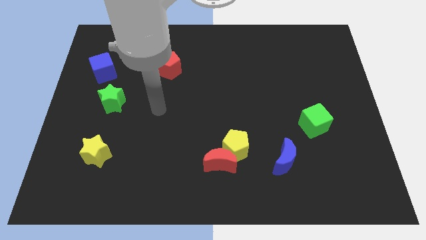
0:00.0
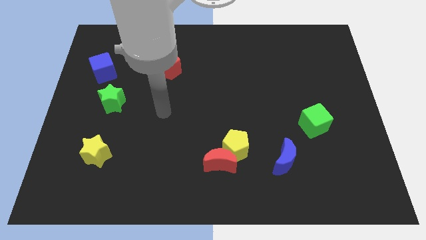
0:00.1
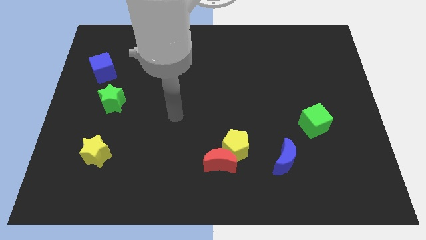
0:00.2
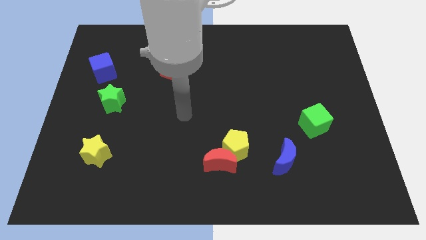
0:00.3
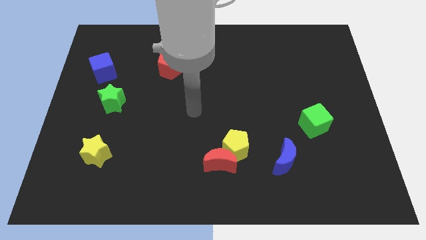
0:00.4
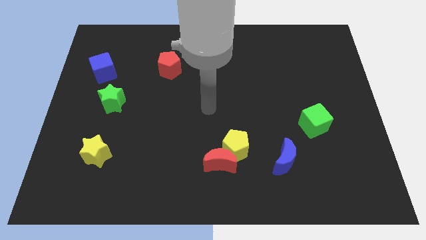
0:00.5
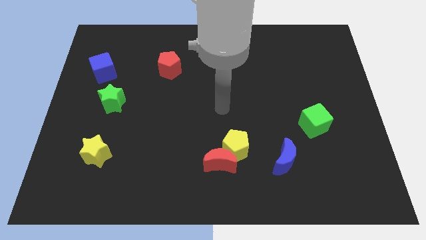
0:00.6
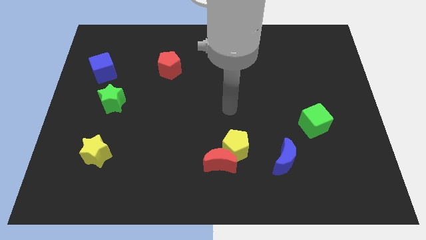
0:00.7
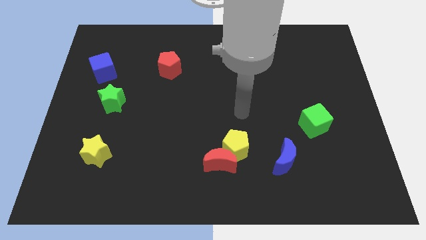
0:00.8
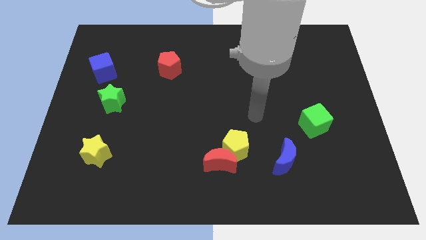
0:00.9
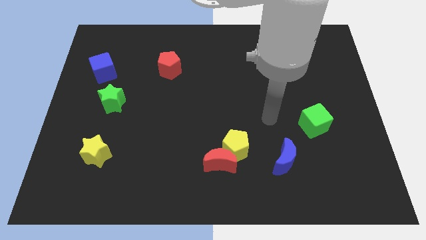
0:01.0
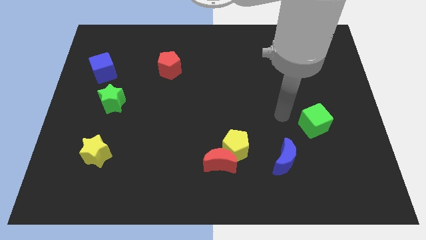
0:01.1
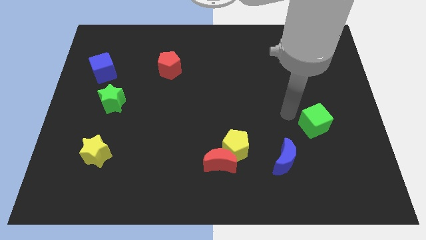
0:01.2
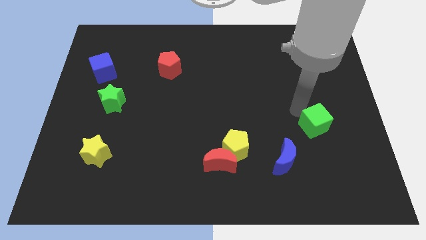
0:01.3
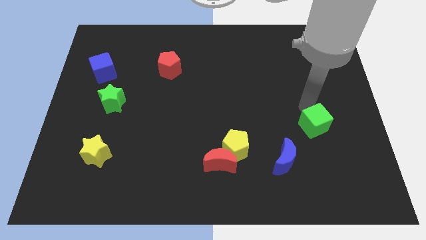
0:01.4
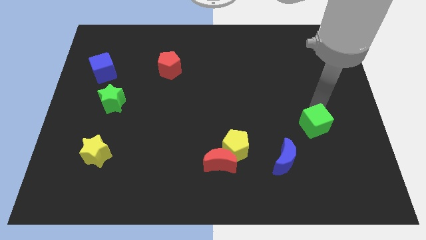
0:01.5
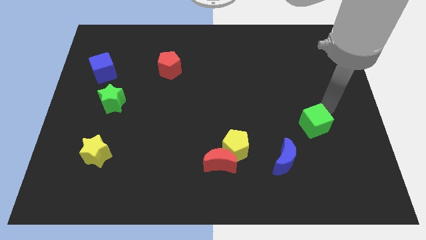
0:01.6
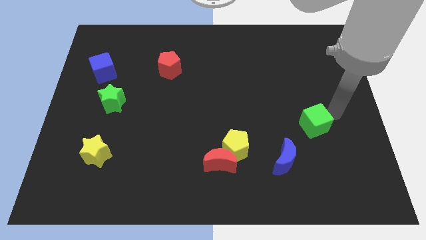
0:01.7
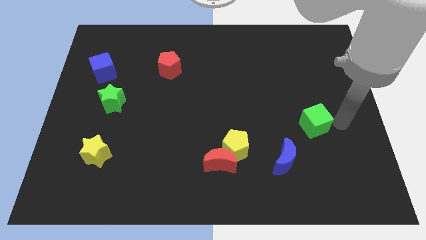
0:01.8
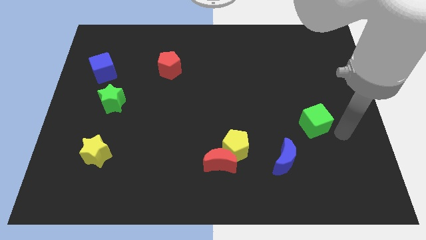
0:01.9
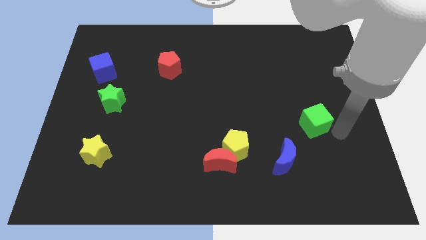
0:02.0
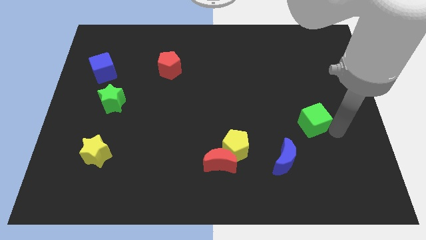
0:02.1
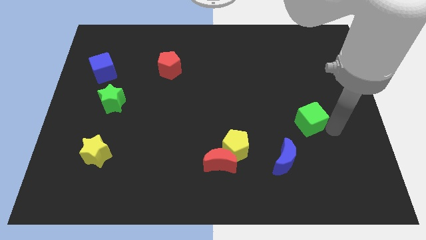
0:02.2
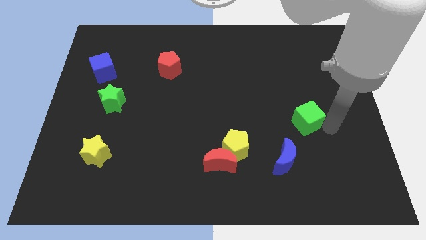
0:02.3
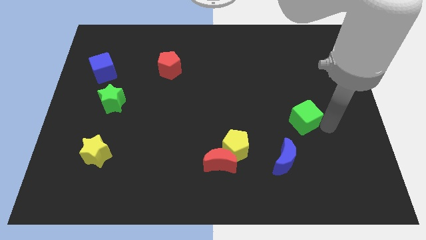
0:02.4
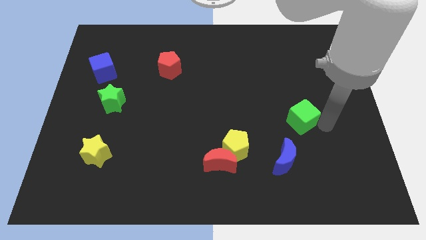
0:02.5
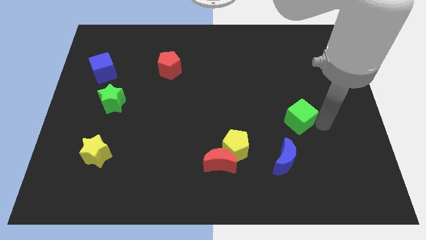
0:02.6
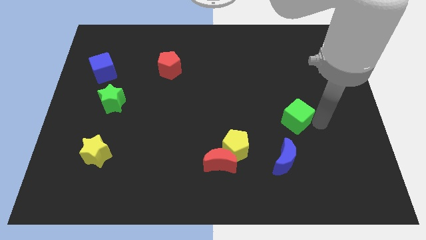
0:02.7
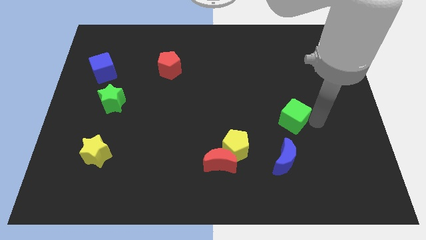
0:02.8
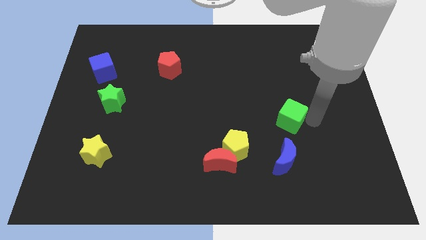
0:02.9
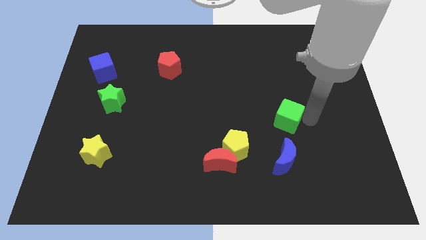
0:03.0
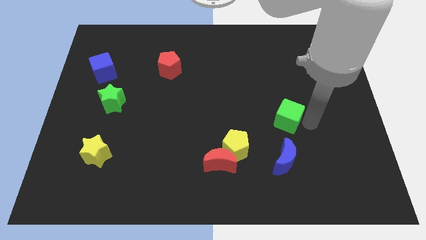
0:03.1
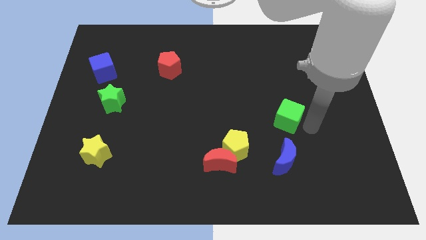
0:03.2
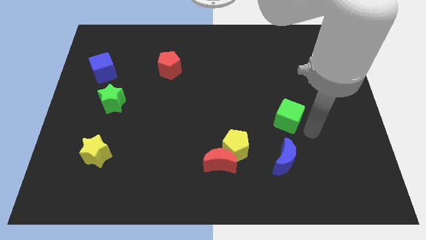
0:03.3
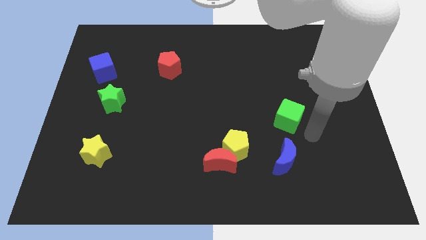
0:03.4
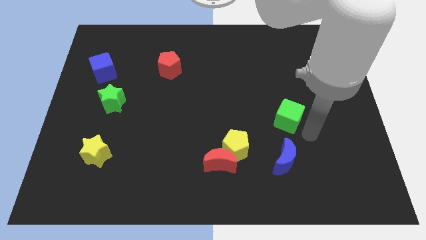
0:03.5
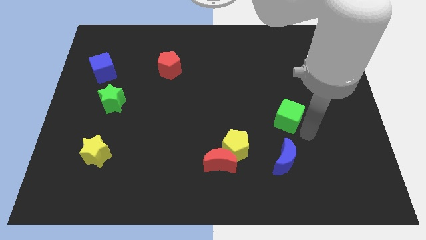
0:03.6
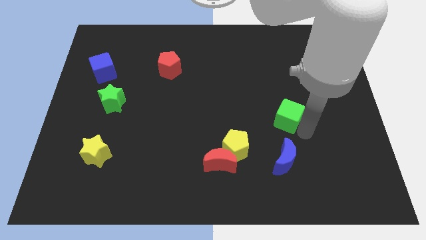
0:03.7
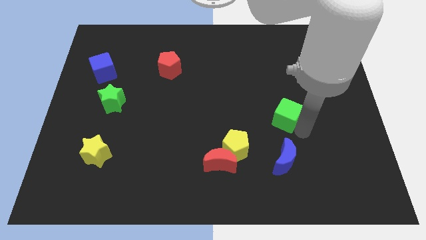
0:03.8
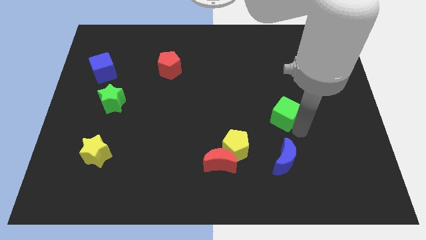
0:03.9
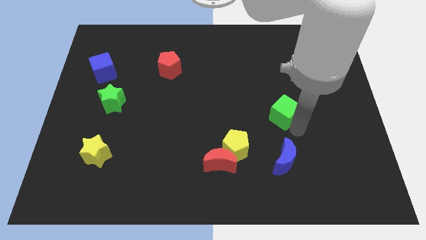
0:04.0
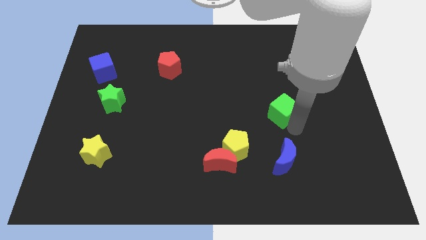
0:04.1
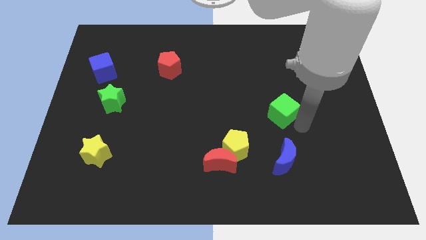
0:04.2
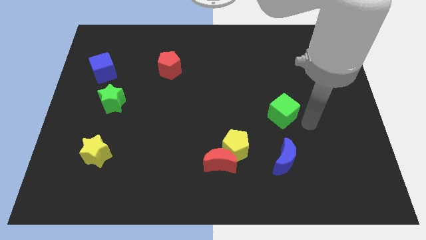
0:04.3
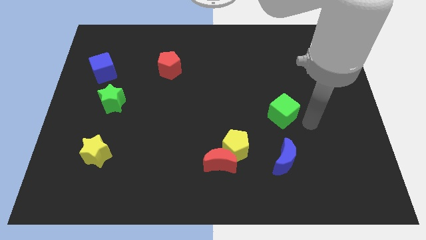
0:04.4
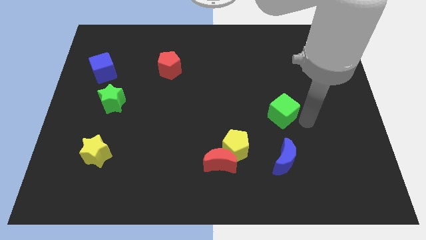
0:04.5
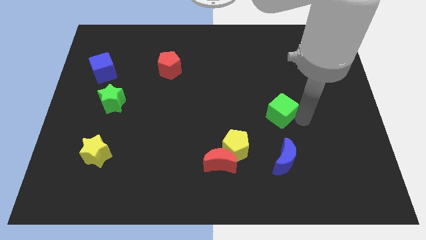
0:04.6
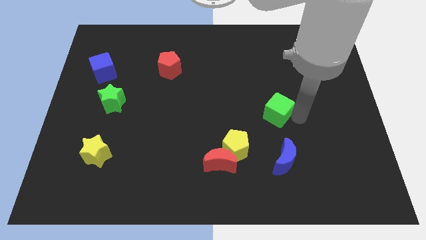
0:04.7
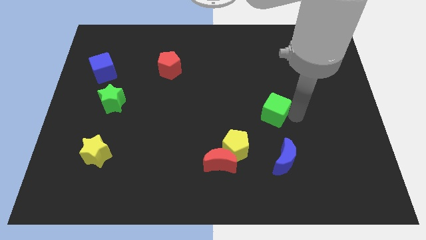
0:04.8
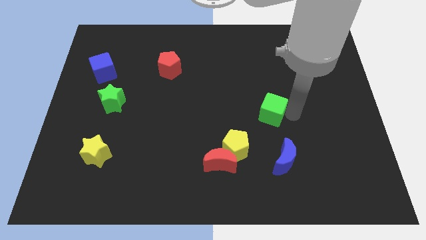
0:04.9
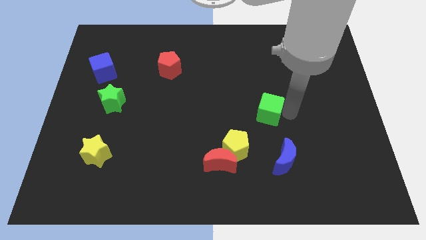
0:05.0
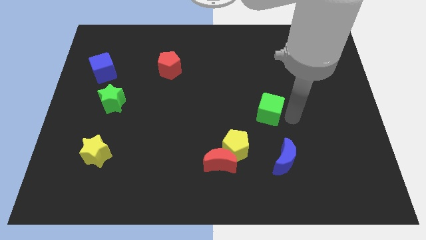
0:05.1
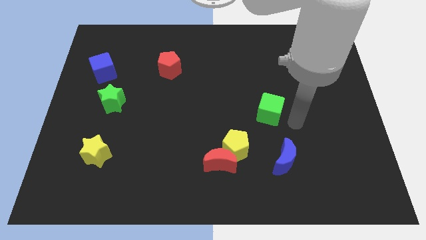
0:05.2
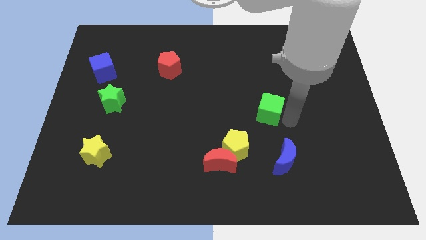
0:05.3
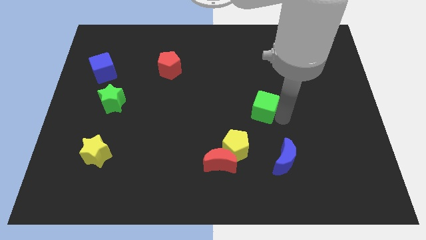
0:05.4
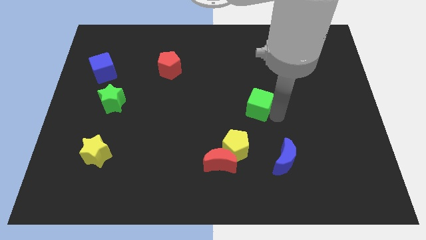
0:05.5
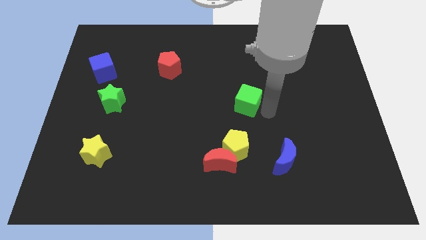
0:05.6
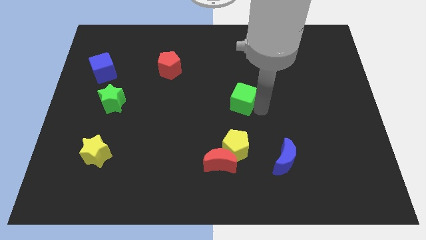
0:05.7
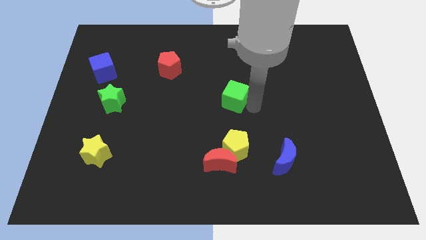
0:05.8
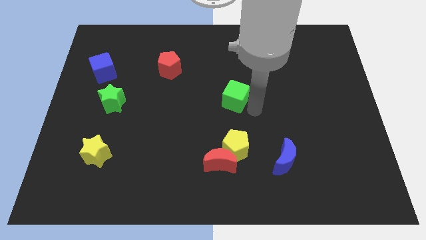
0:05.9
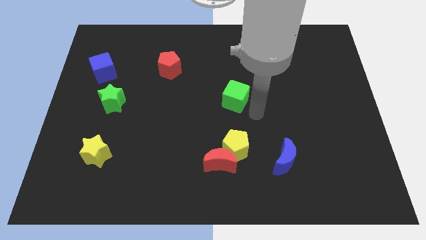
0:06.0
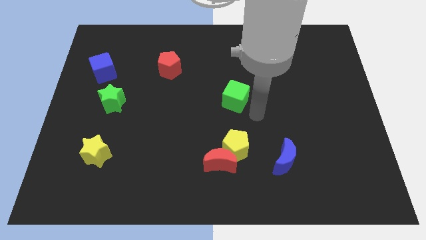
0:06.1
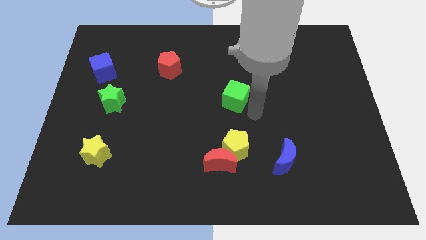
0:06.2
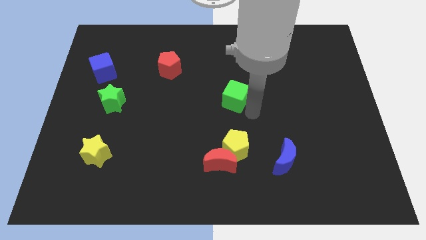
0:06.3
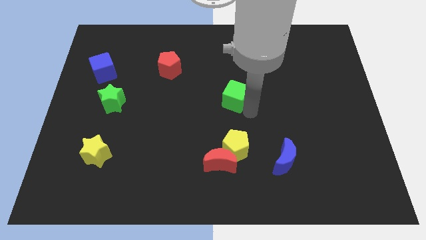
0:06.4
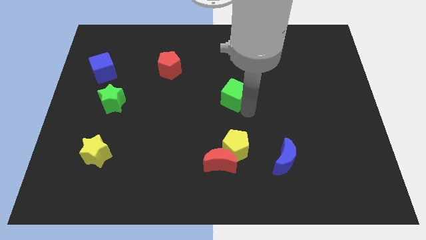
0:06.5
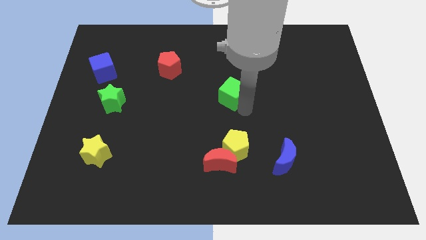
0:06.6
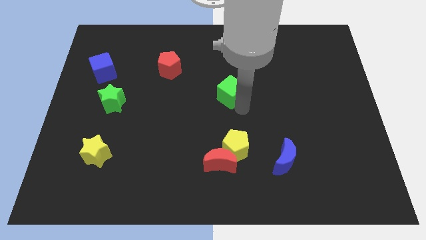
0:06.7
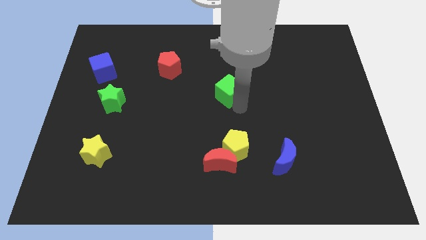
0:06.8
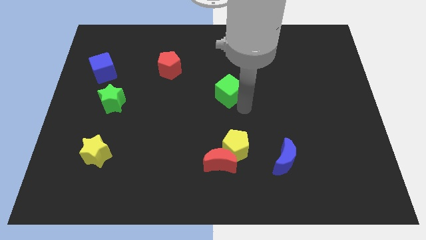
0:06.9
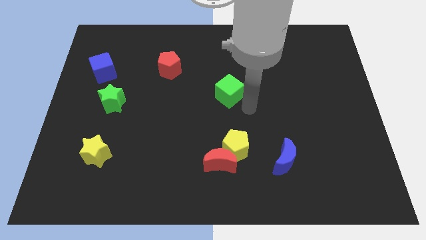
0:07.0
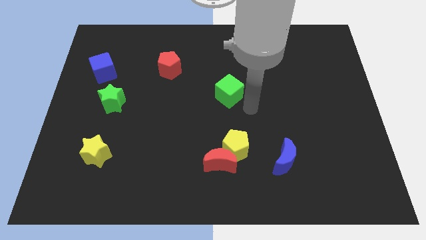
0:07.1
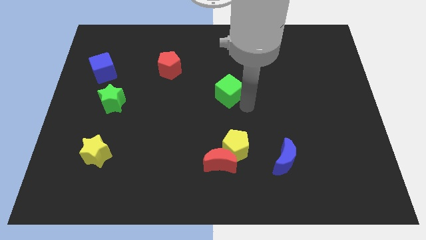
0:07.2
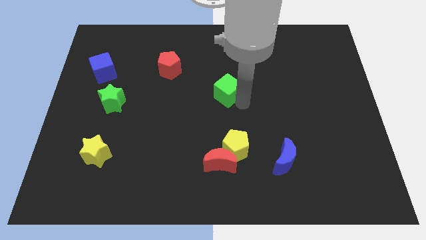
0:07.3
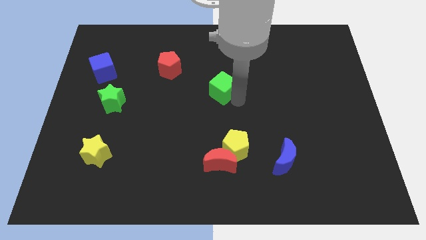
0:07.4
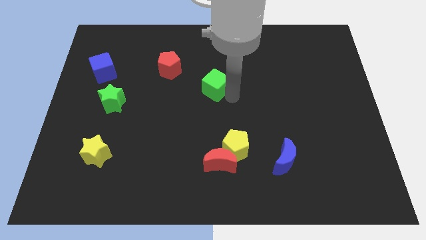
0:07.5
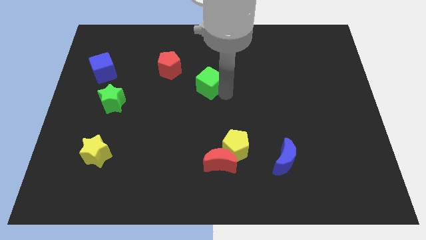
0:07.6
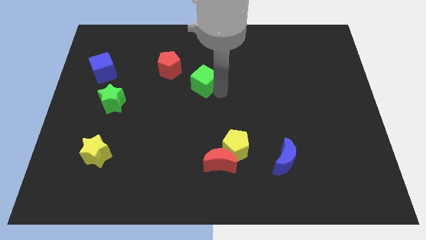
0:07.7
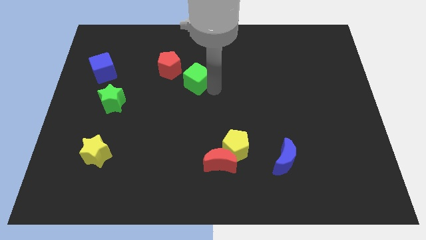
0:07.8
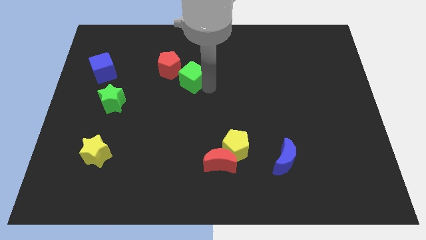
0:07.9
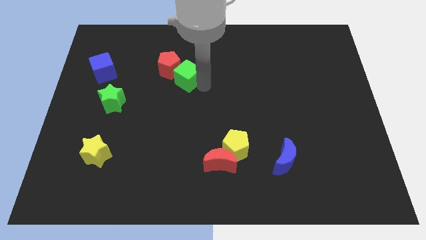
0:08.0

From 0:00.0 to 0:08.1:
move the green cube next to the red pentagon

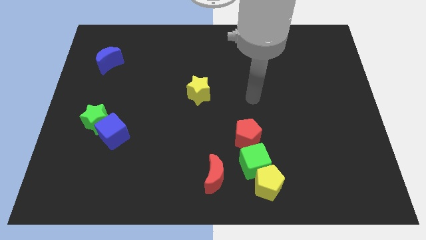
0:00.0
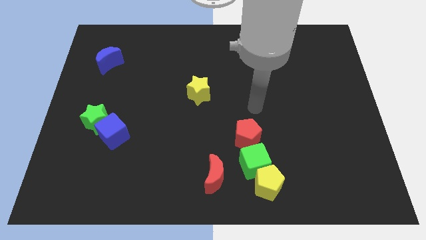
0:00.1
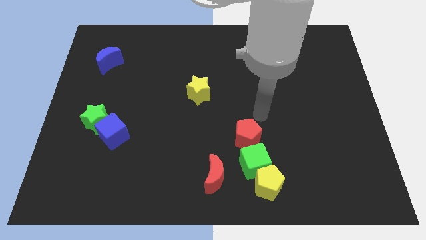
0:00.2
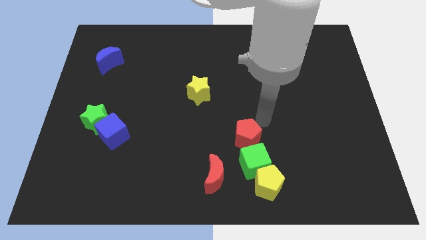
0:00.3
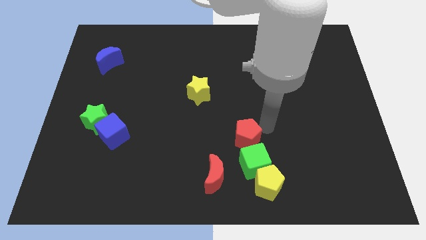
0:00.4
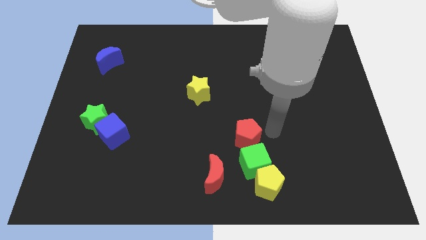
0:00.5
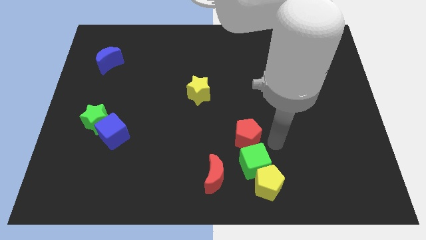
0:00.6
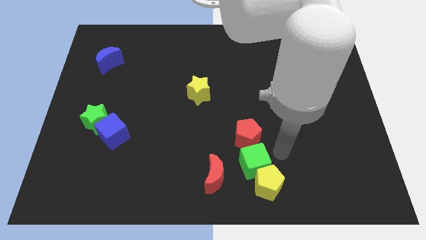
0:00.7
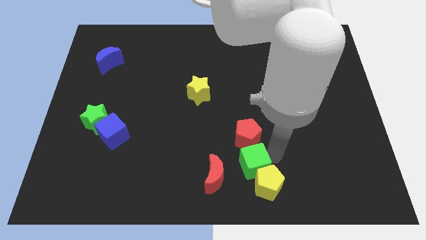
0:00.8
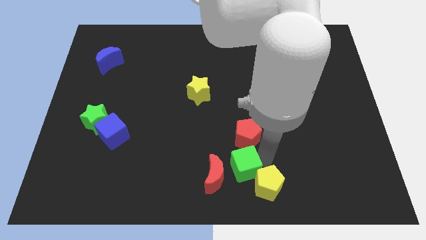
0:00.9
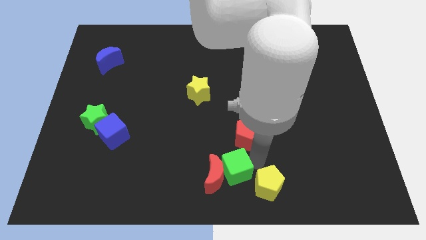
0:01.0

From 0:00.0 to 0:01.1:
slide the green cube next to the red moon
